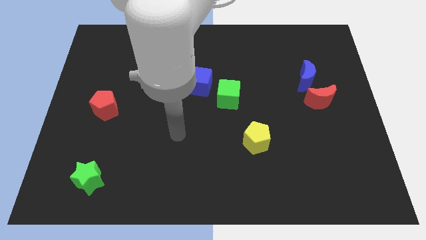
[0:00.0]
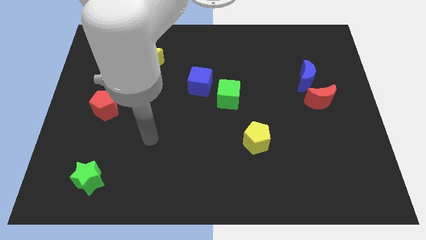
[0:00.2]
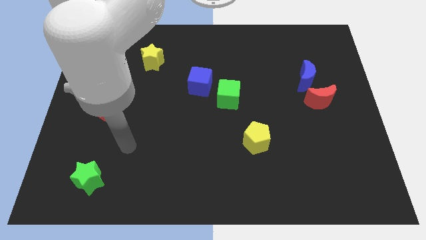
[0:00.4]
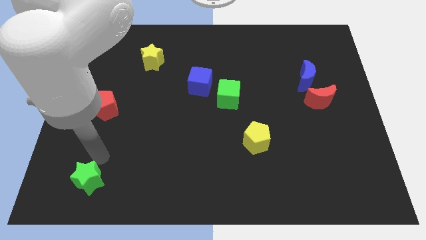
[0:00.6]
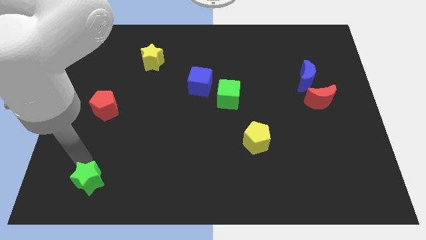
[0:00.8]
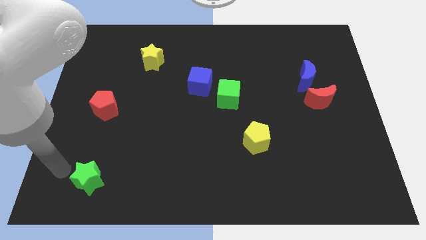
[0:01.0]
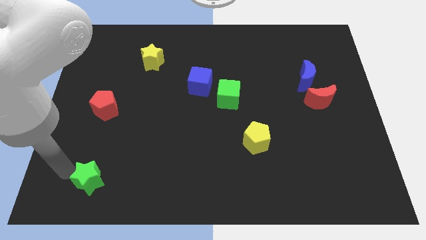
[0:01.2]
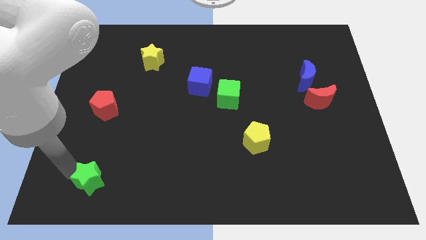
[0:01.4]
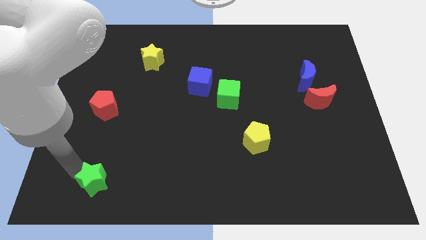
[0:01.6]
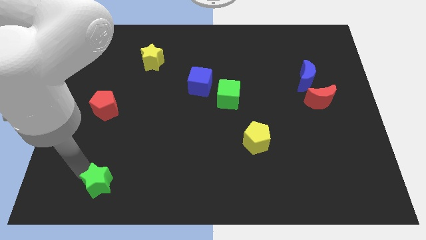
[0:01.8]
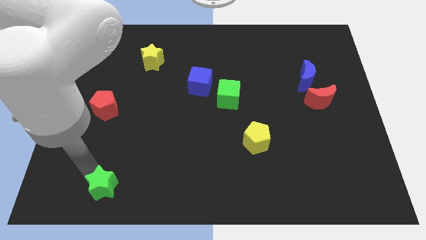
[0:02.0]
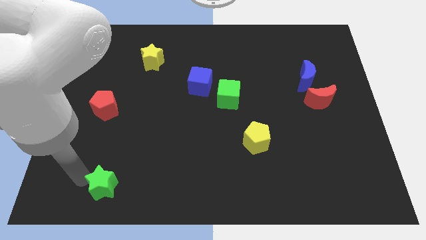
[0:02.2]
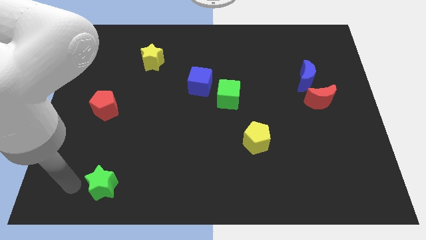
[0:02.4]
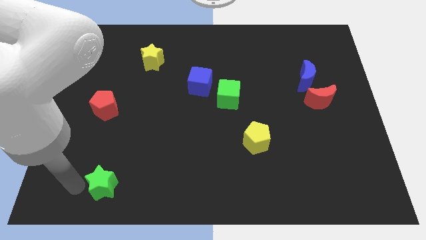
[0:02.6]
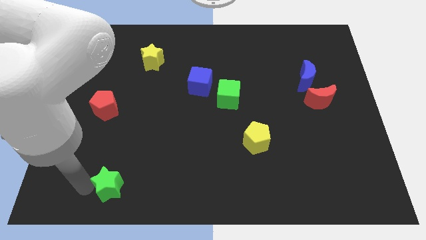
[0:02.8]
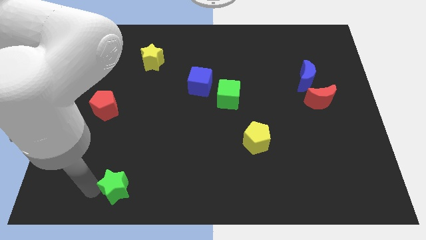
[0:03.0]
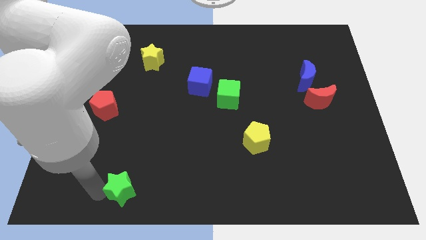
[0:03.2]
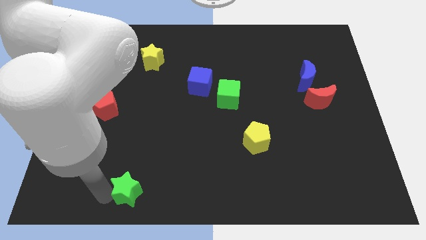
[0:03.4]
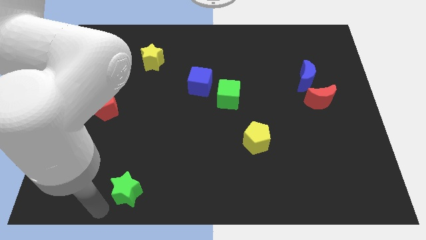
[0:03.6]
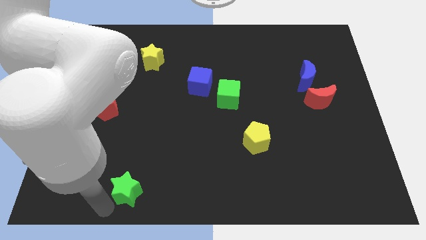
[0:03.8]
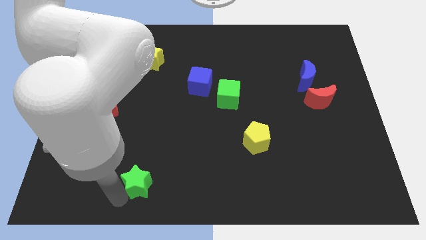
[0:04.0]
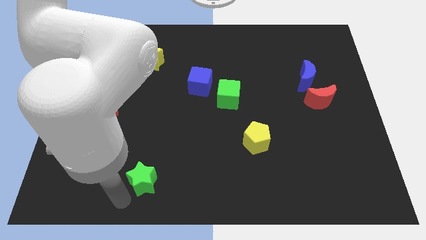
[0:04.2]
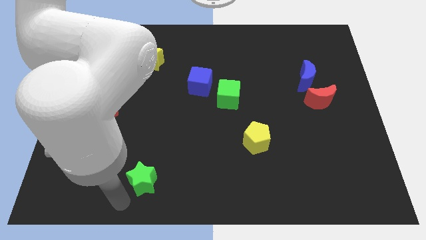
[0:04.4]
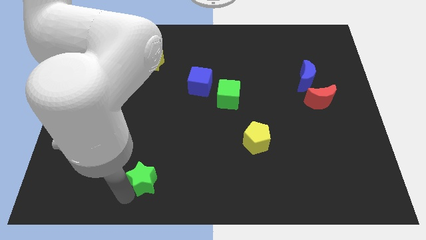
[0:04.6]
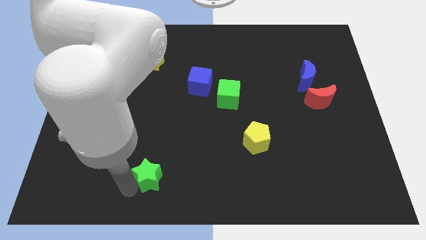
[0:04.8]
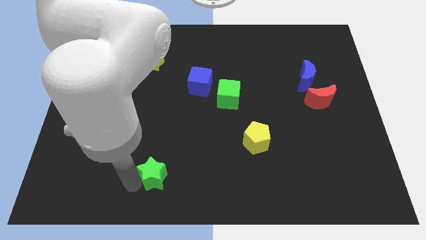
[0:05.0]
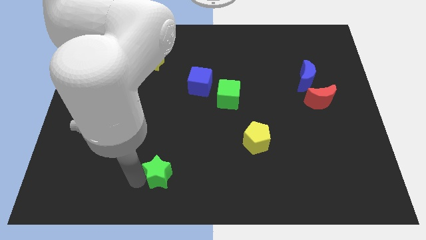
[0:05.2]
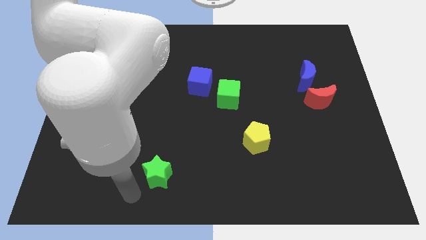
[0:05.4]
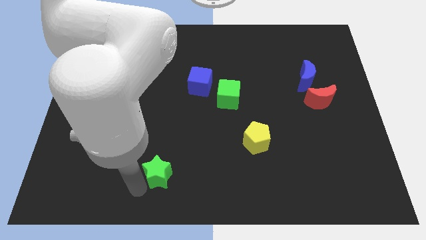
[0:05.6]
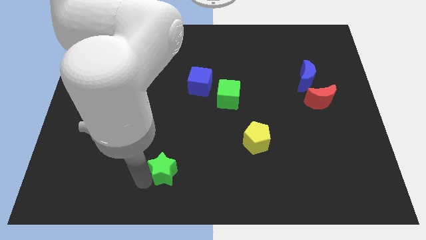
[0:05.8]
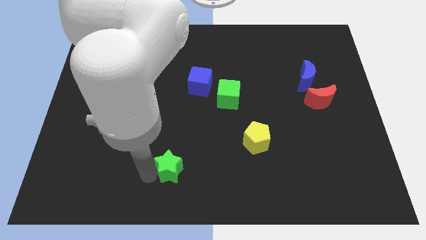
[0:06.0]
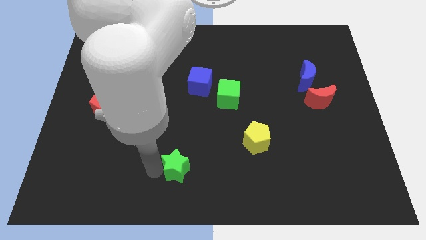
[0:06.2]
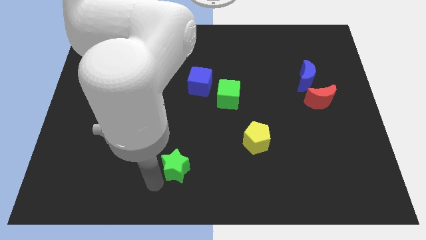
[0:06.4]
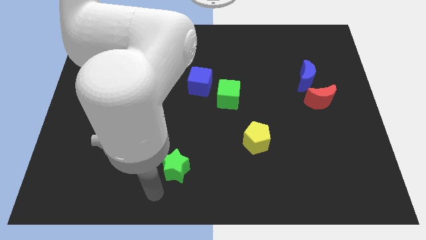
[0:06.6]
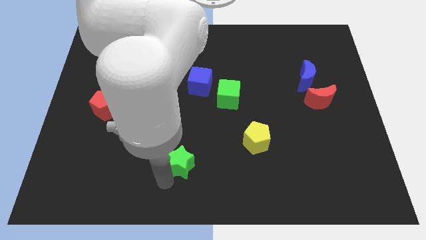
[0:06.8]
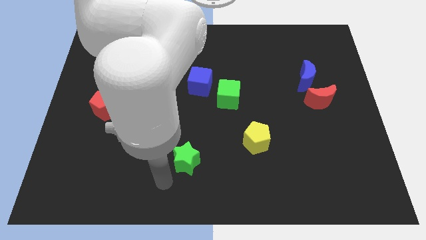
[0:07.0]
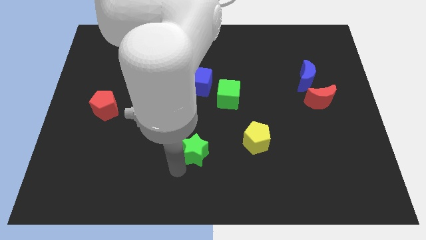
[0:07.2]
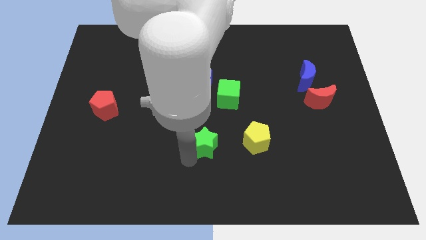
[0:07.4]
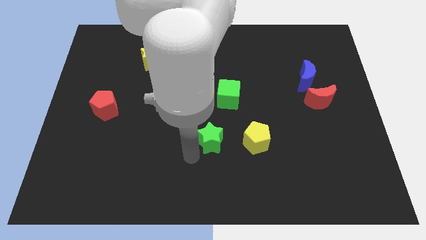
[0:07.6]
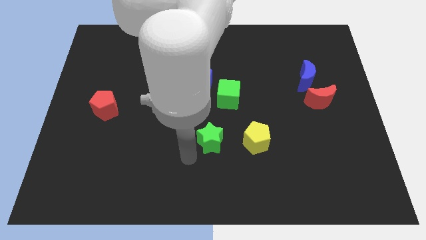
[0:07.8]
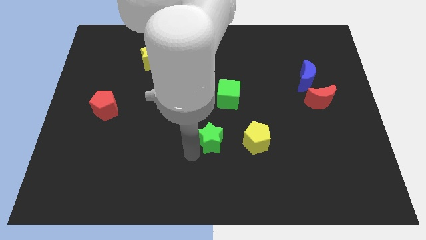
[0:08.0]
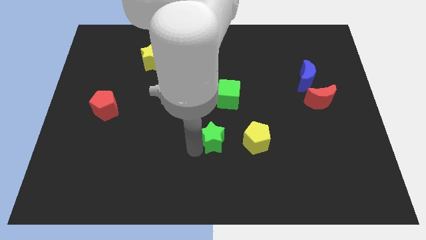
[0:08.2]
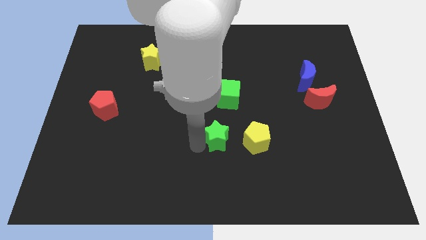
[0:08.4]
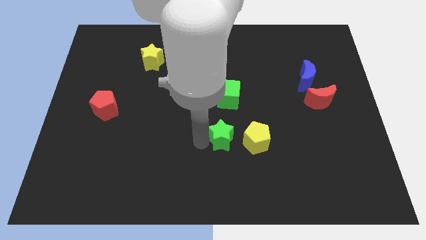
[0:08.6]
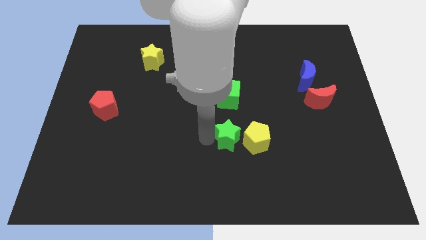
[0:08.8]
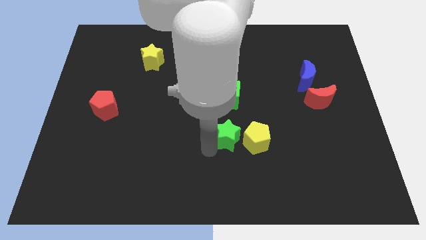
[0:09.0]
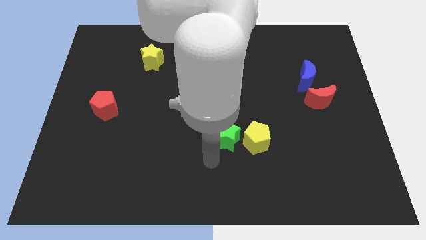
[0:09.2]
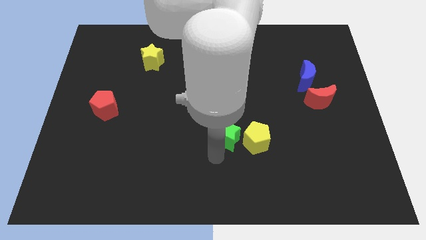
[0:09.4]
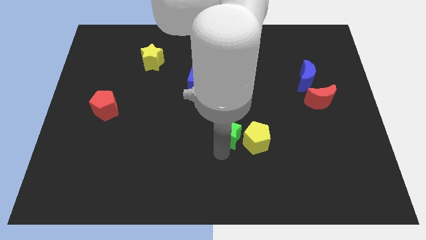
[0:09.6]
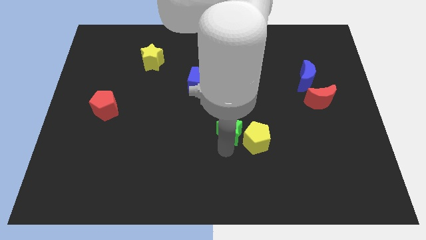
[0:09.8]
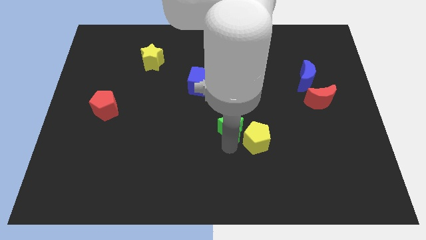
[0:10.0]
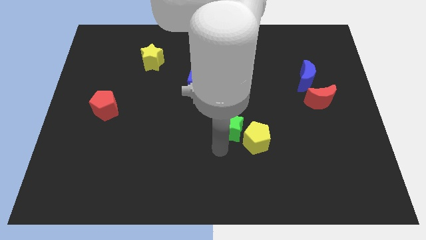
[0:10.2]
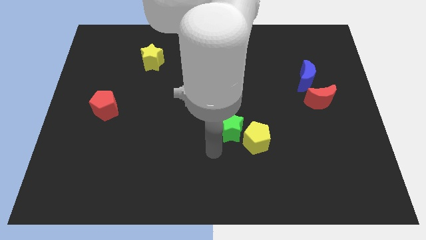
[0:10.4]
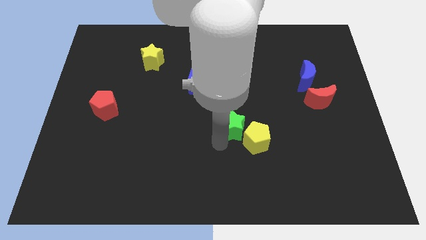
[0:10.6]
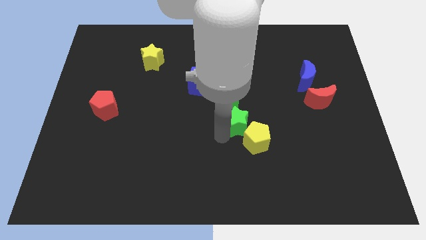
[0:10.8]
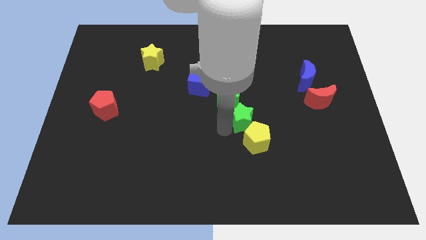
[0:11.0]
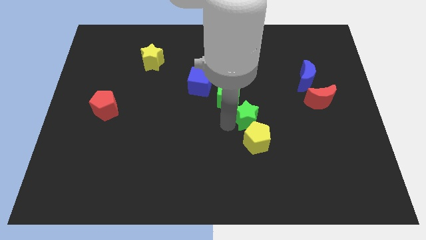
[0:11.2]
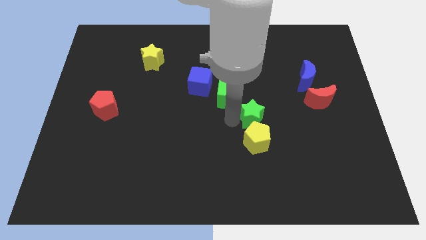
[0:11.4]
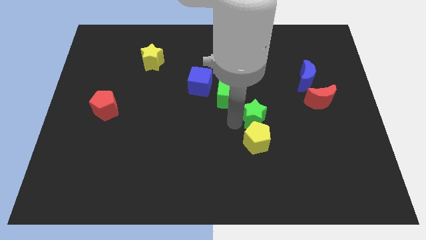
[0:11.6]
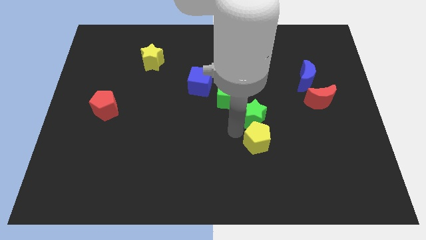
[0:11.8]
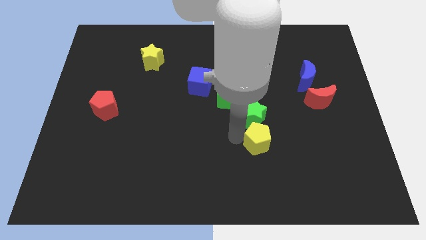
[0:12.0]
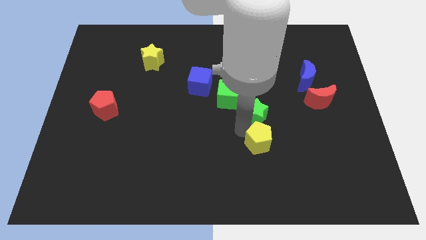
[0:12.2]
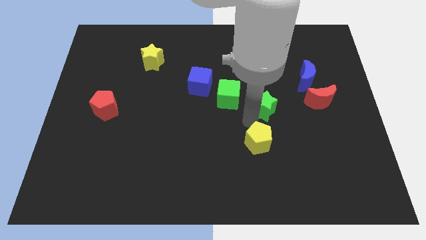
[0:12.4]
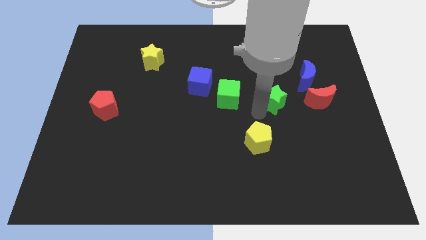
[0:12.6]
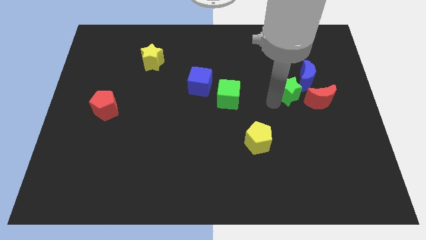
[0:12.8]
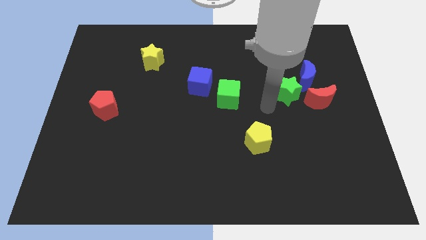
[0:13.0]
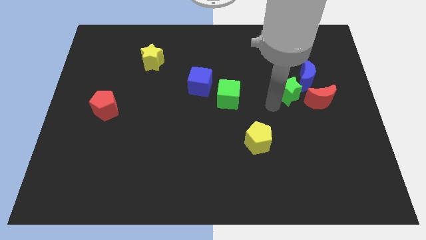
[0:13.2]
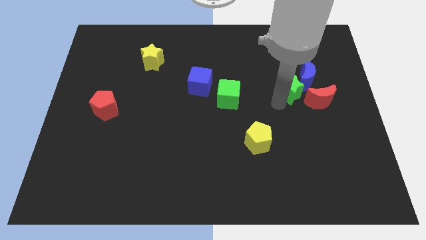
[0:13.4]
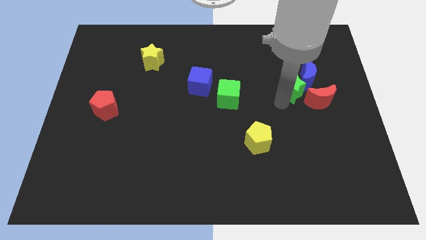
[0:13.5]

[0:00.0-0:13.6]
put the green star to the blue moon

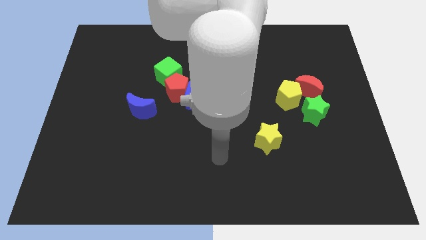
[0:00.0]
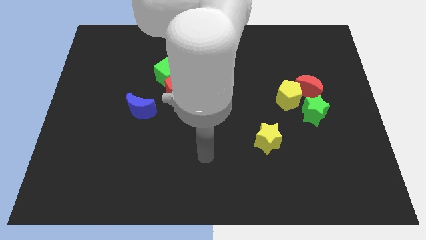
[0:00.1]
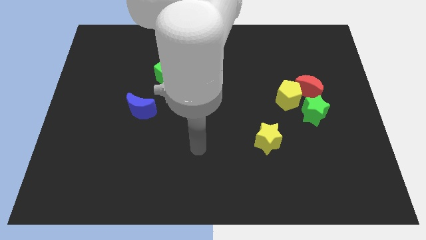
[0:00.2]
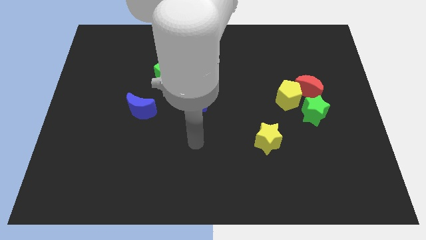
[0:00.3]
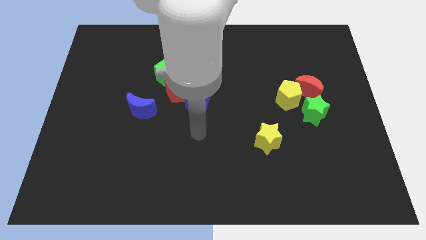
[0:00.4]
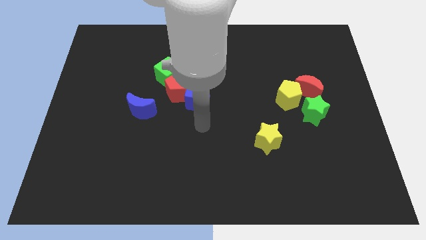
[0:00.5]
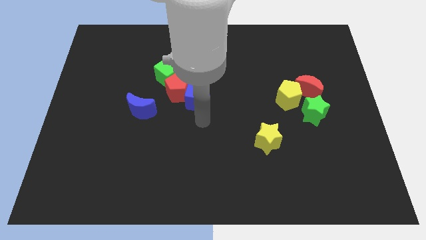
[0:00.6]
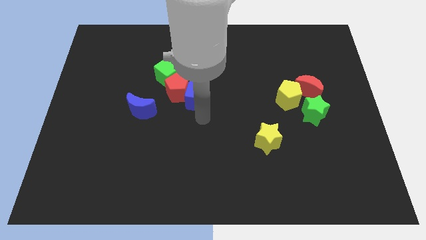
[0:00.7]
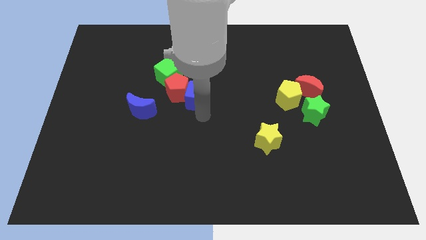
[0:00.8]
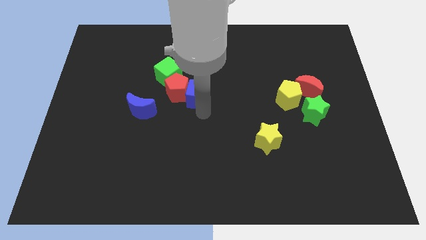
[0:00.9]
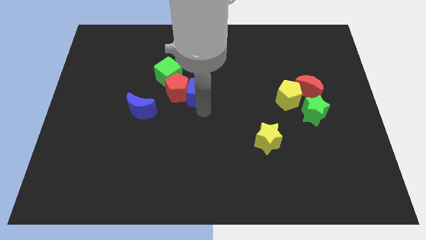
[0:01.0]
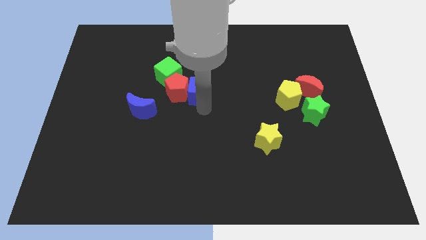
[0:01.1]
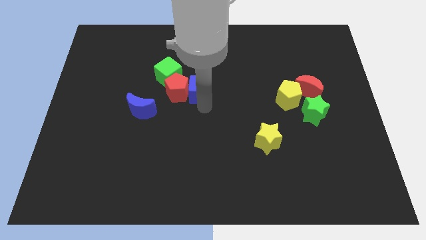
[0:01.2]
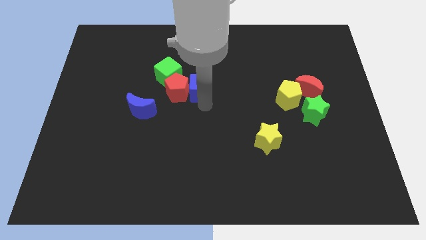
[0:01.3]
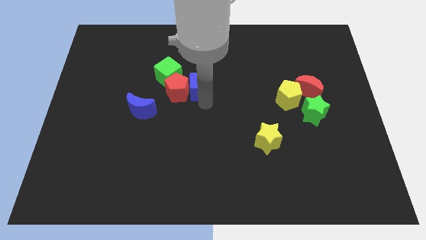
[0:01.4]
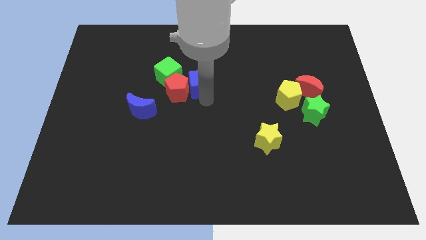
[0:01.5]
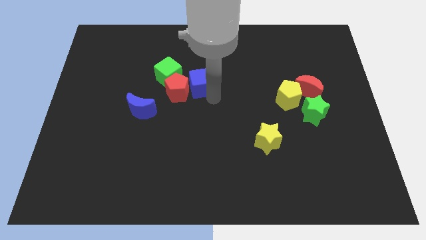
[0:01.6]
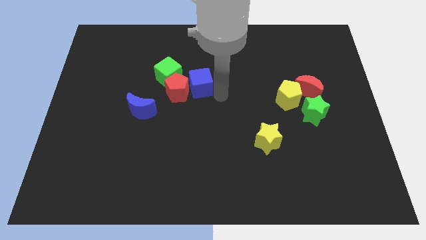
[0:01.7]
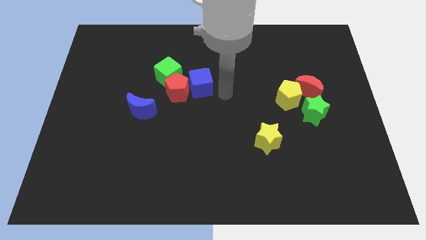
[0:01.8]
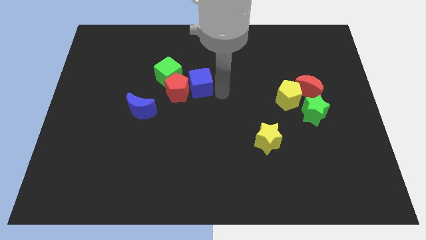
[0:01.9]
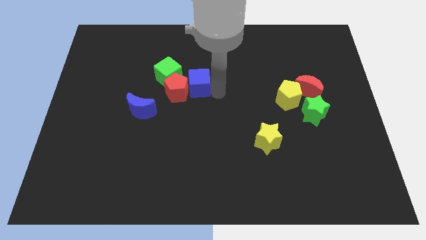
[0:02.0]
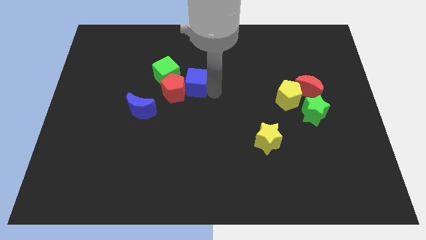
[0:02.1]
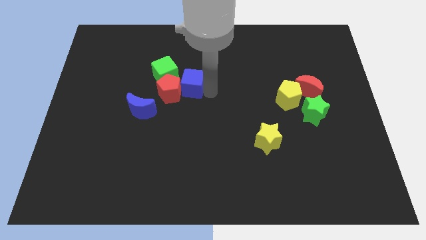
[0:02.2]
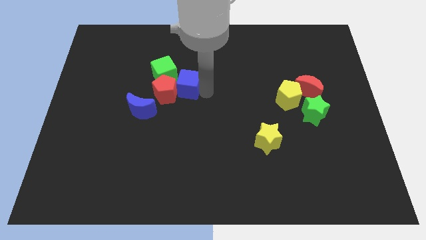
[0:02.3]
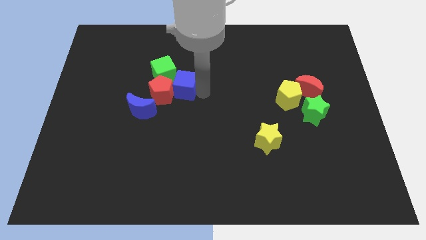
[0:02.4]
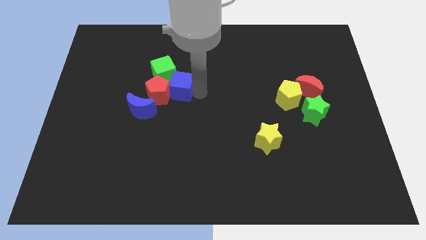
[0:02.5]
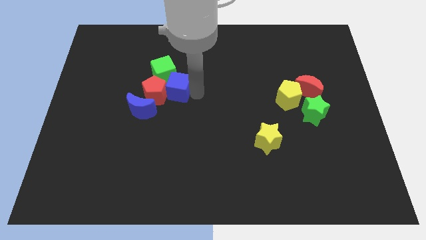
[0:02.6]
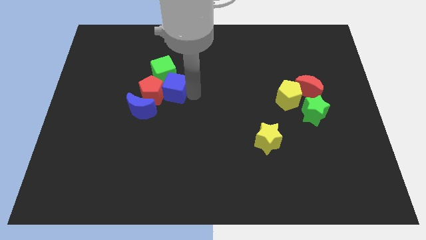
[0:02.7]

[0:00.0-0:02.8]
put the blue cube next to the green cube
